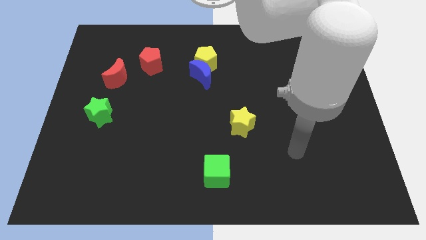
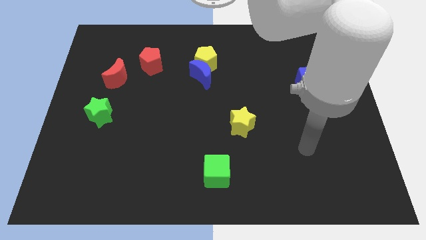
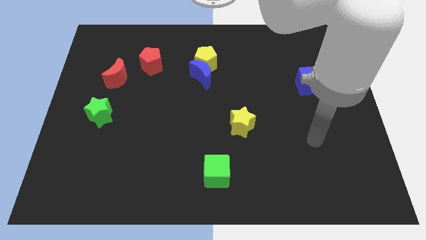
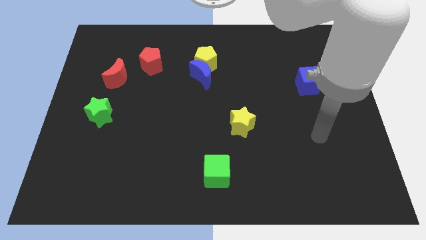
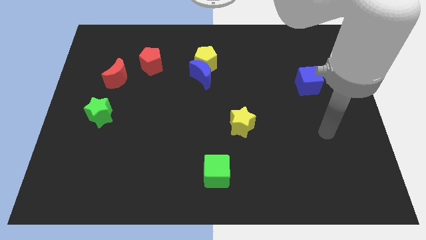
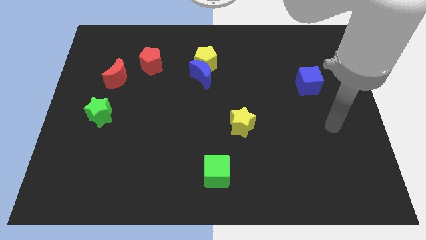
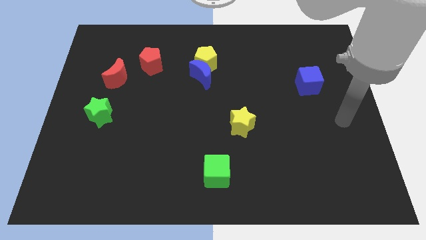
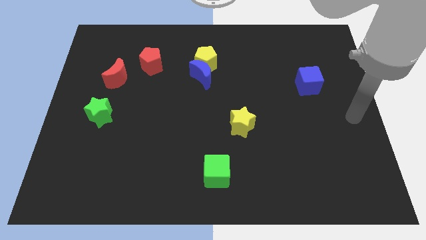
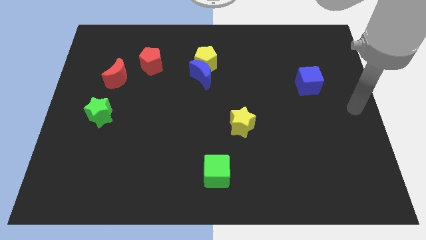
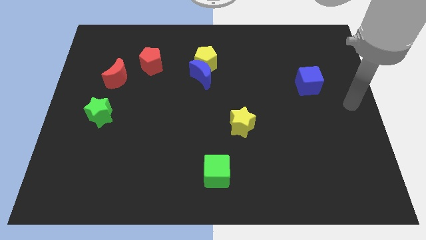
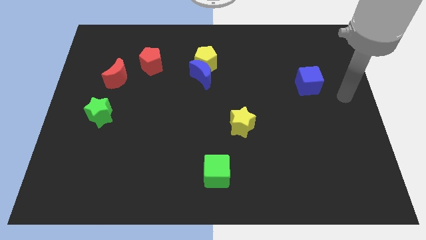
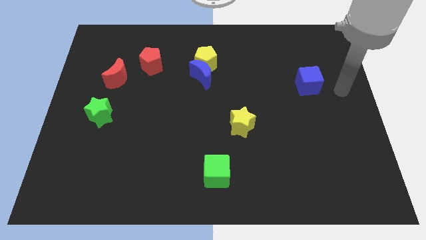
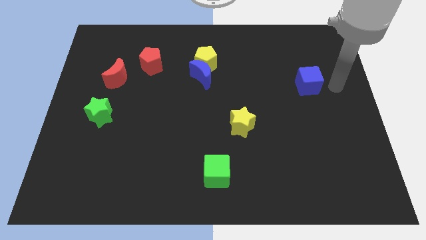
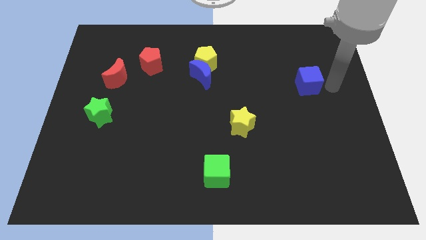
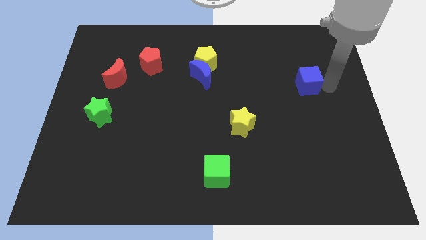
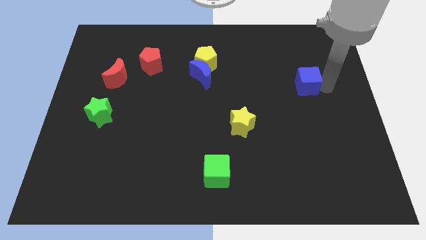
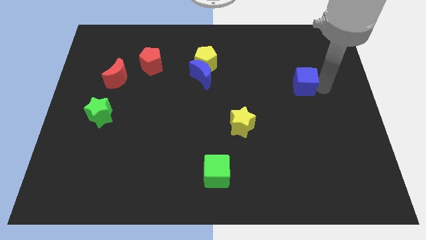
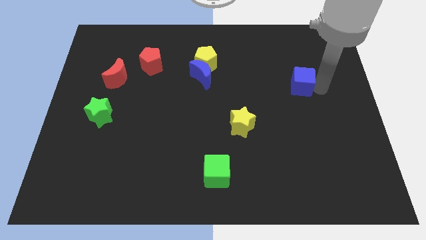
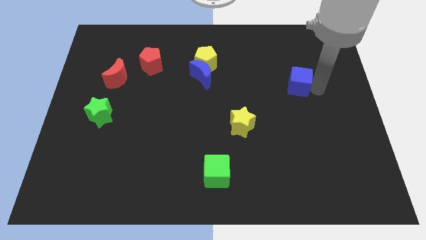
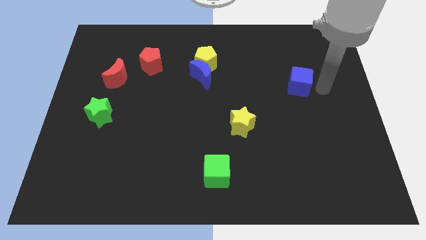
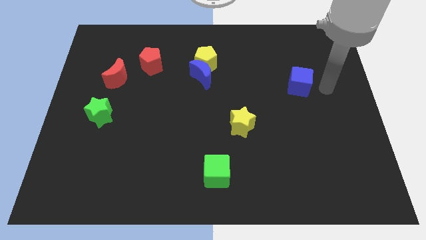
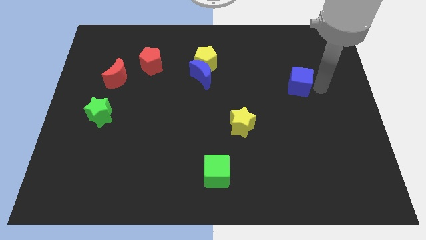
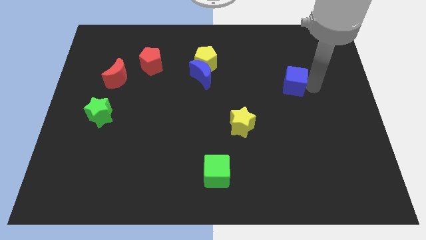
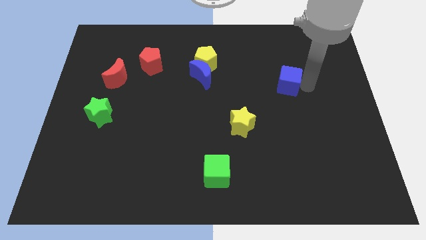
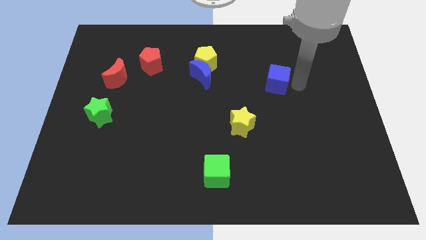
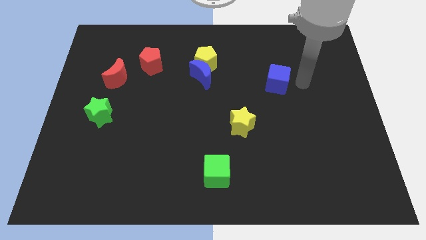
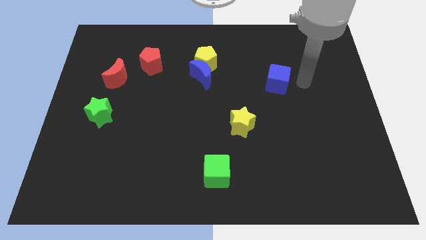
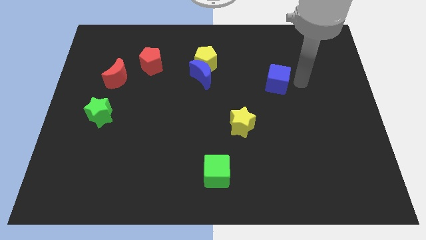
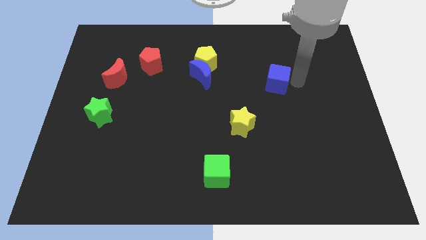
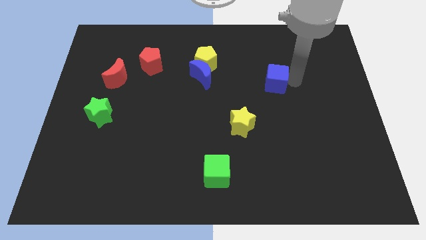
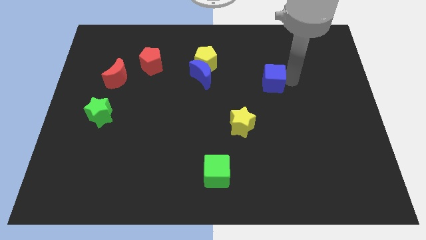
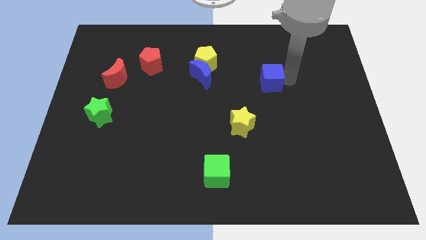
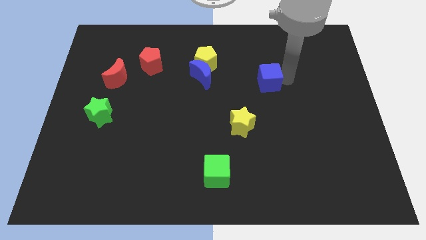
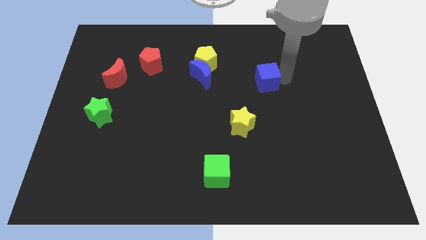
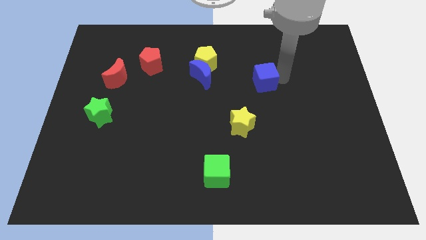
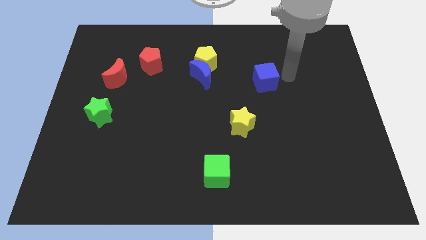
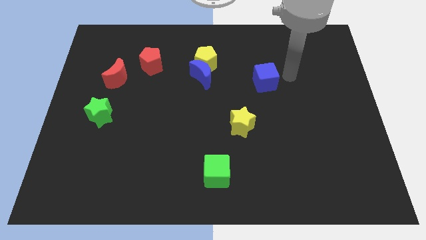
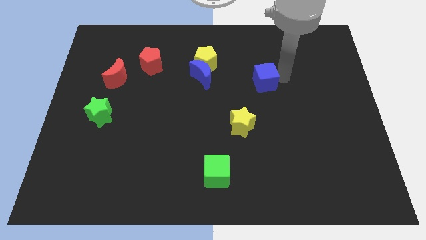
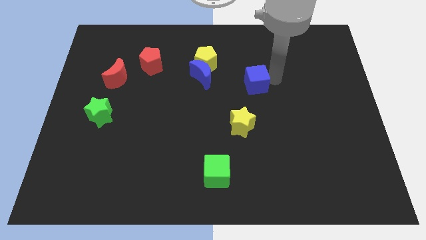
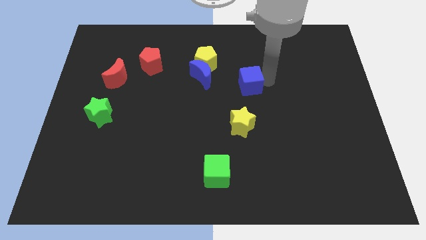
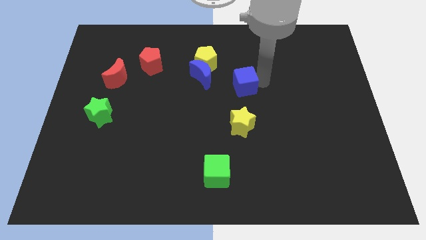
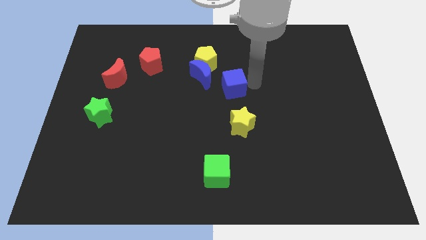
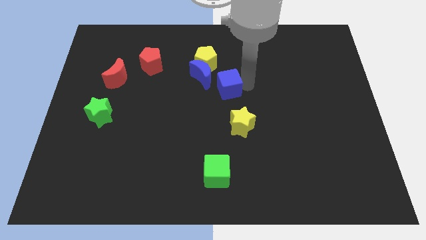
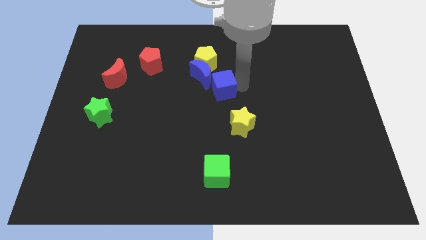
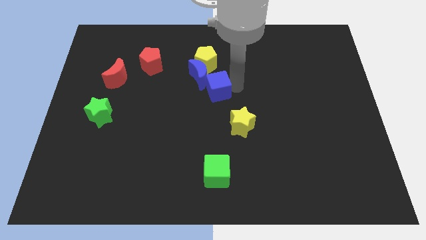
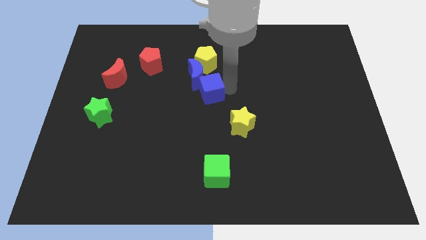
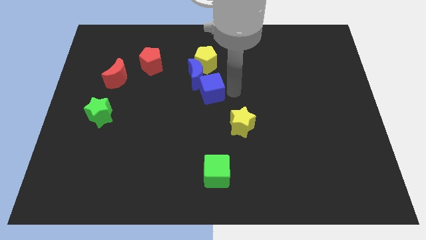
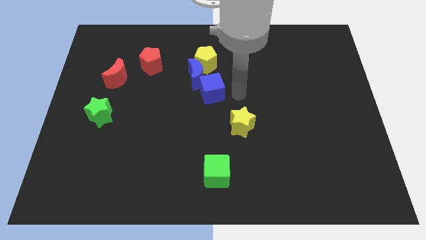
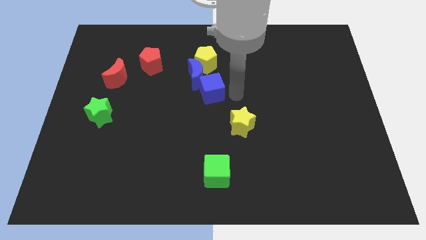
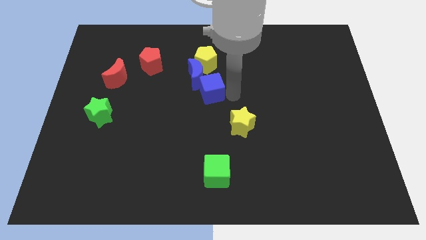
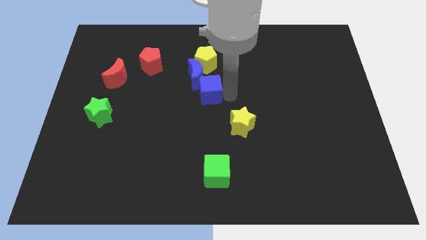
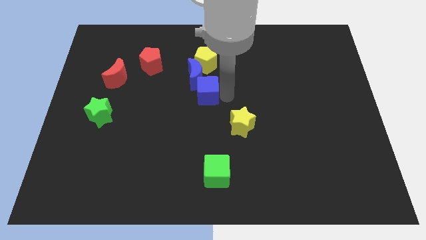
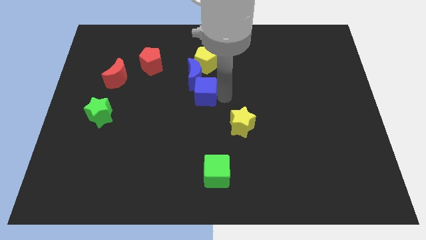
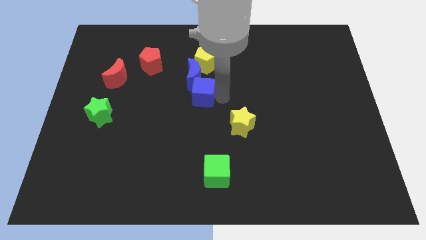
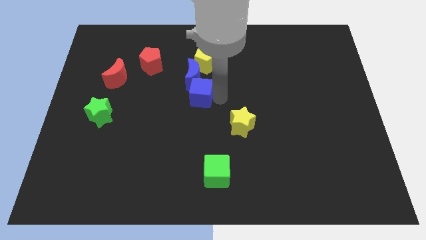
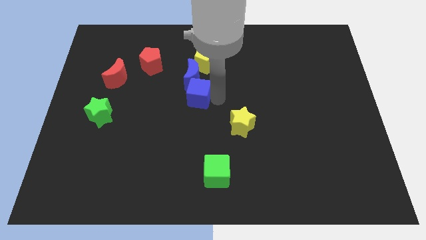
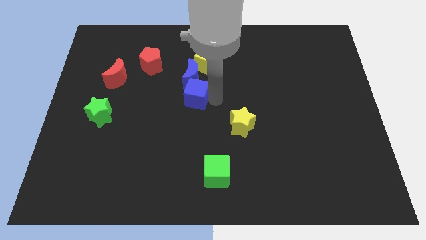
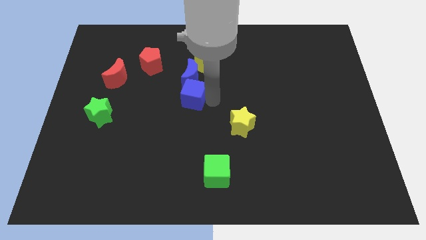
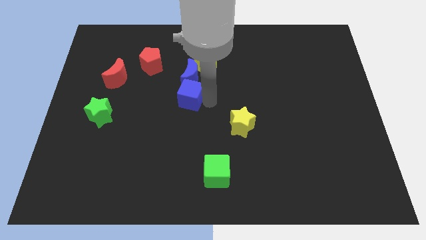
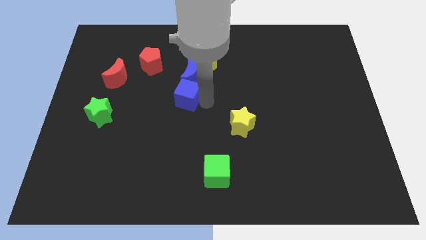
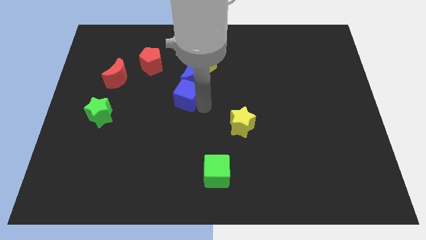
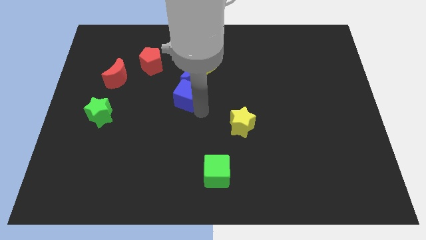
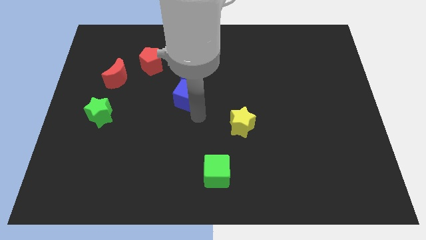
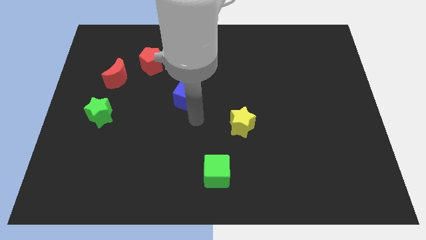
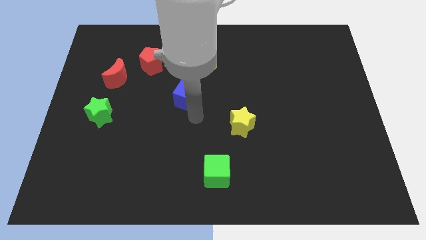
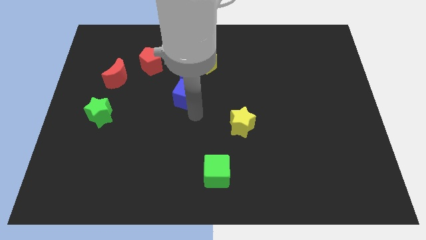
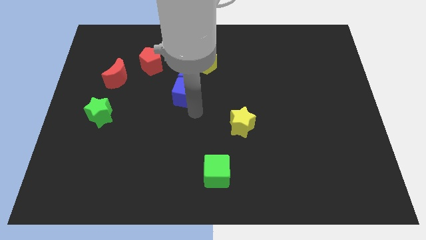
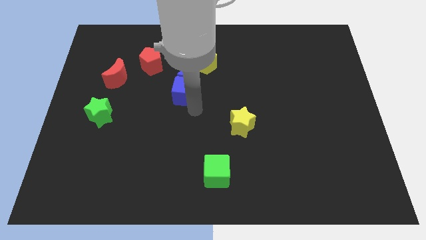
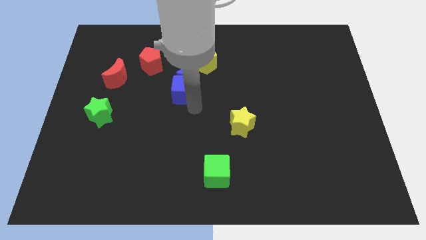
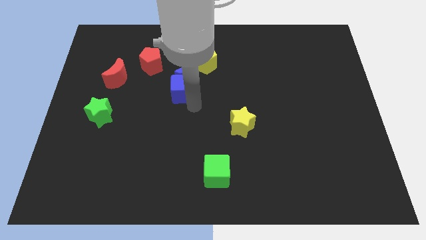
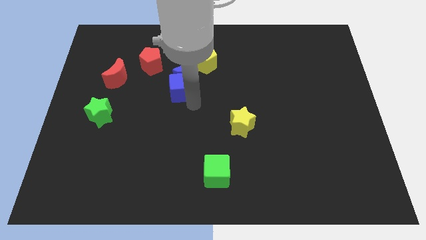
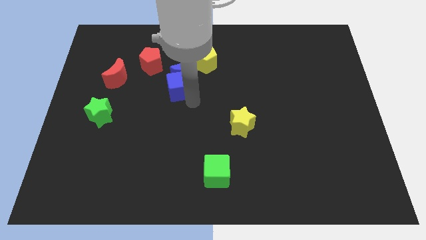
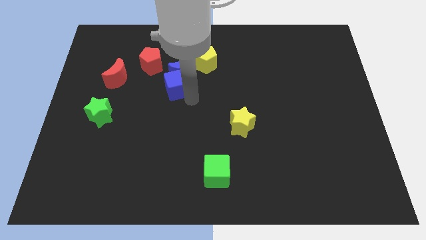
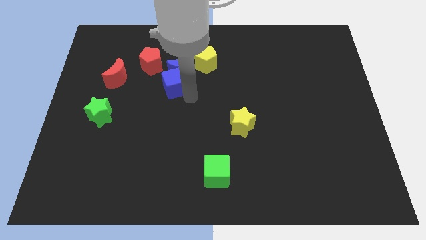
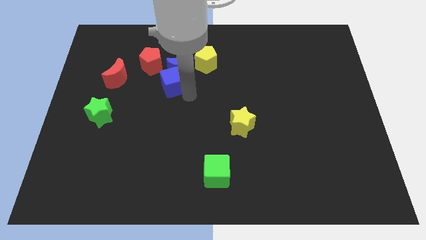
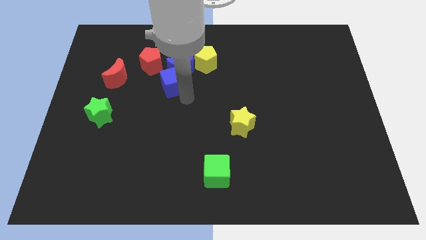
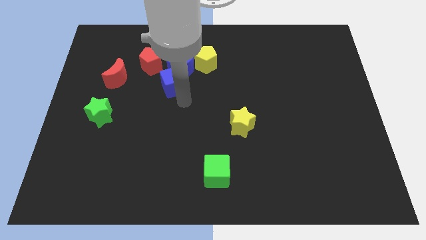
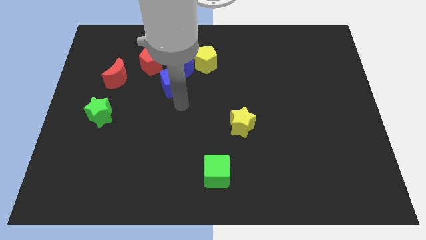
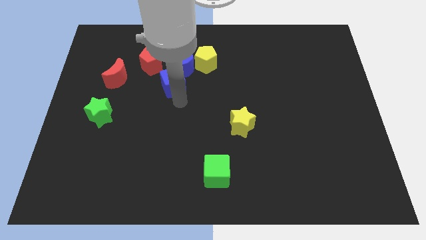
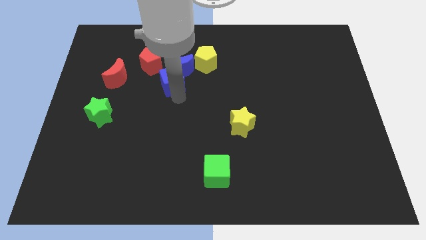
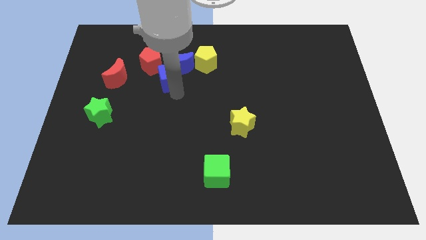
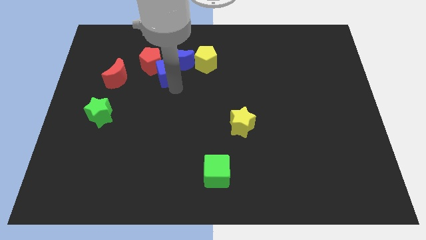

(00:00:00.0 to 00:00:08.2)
put the blue cube towards the red pentagon
